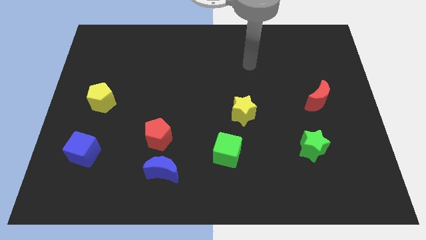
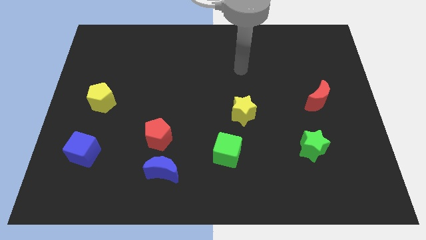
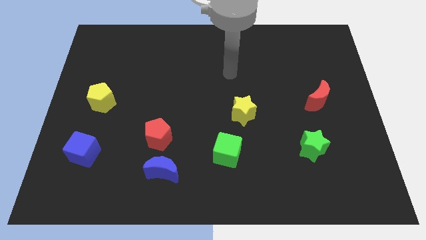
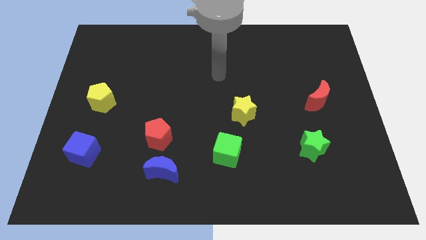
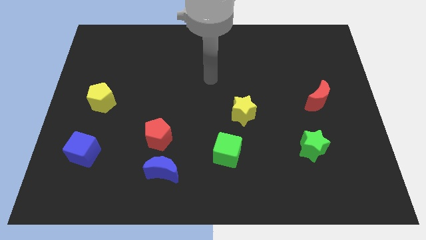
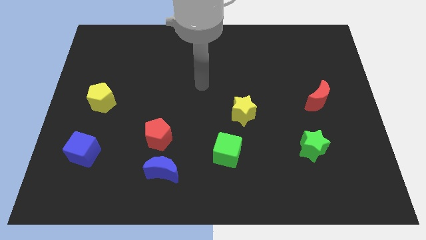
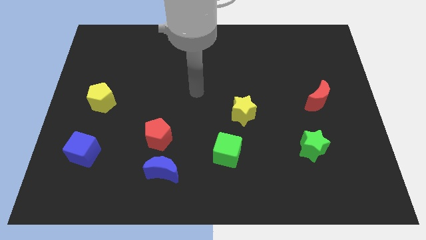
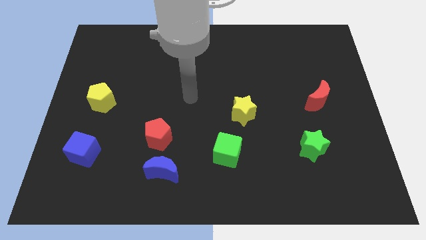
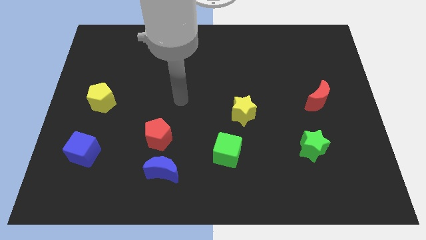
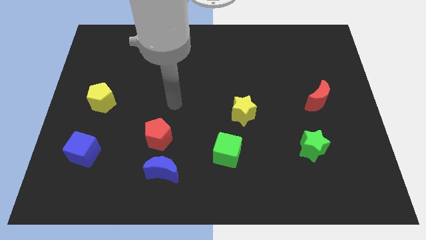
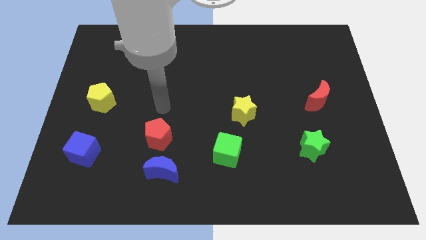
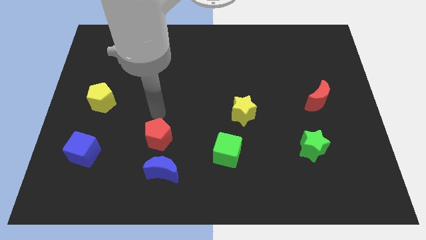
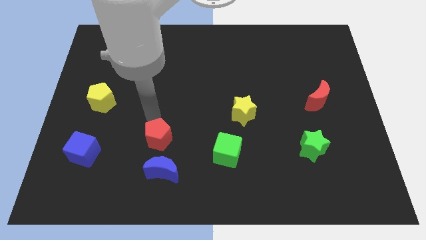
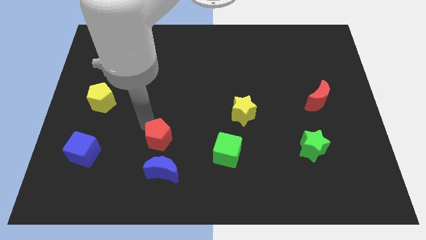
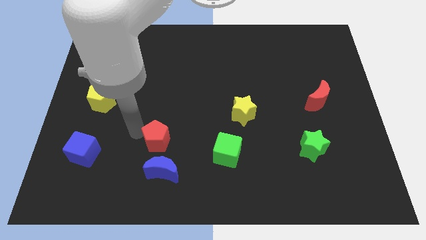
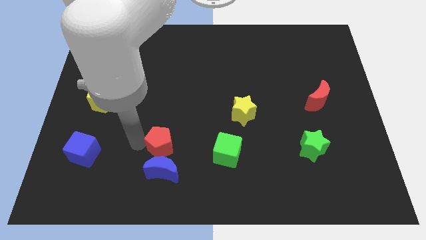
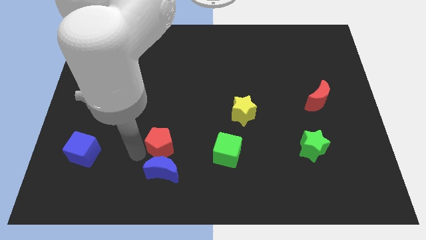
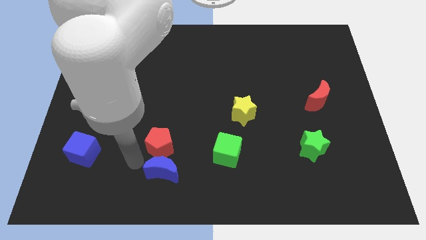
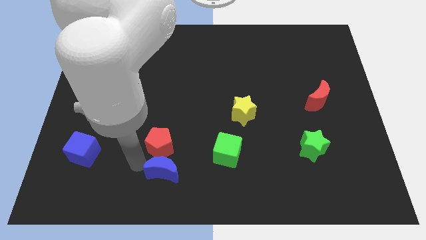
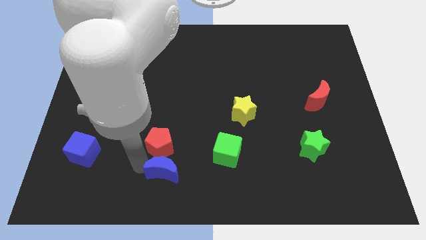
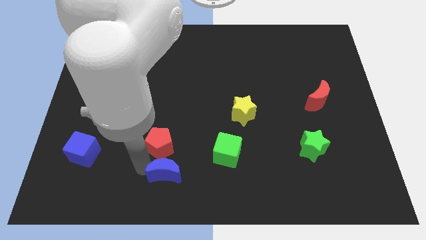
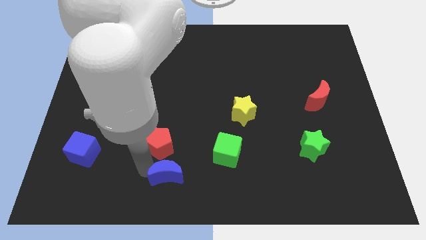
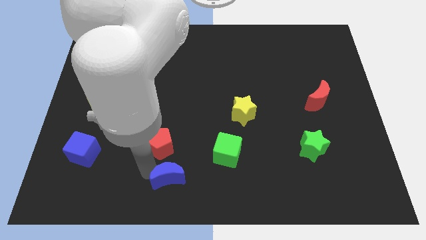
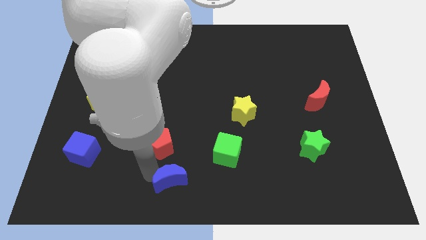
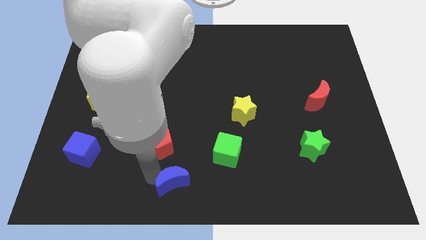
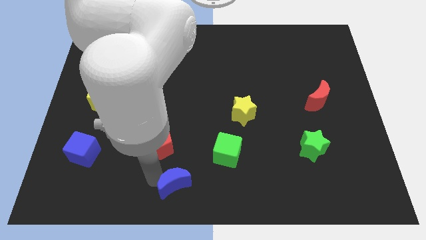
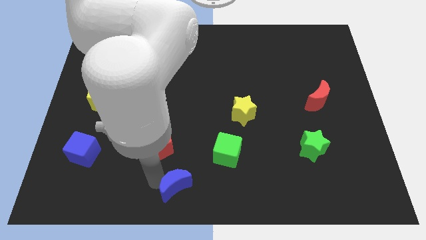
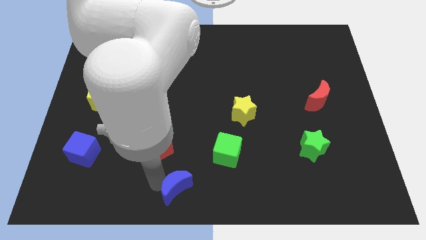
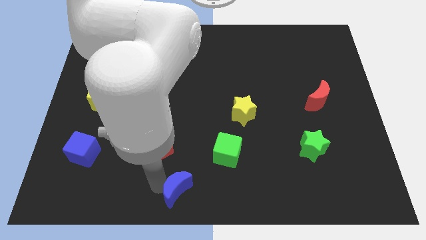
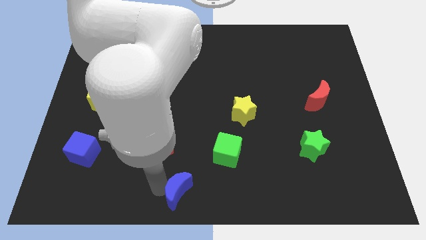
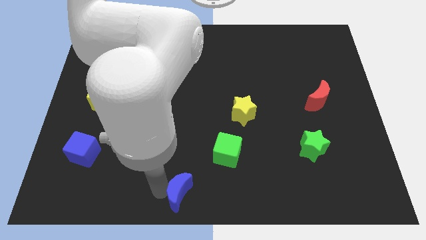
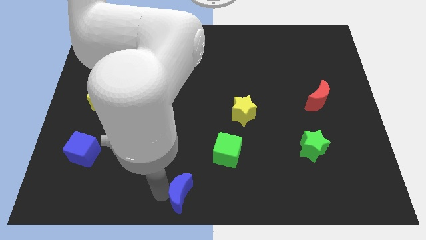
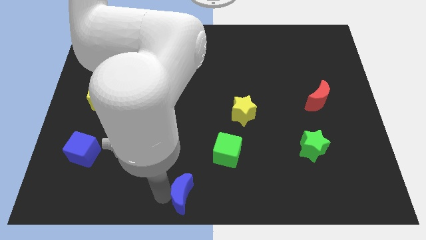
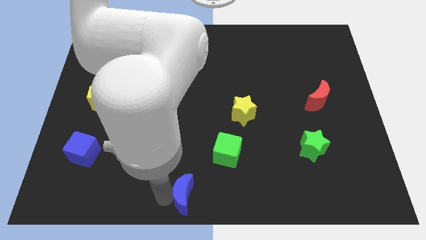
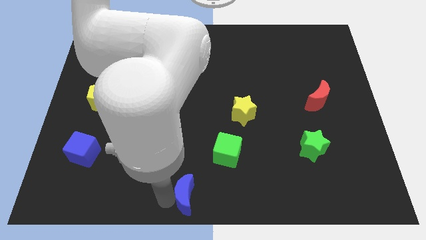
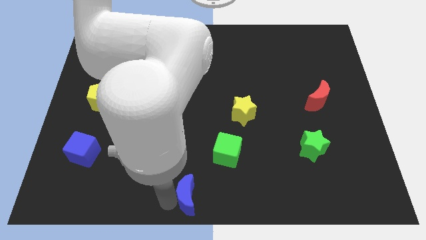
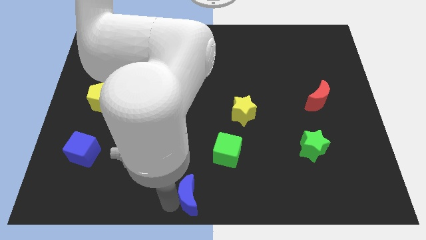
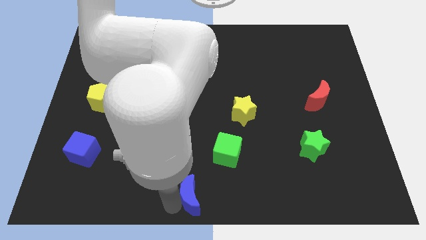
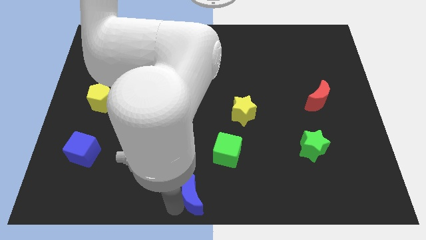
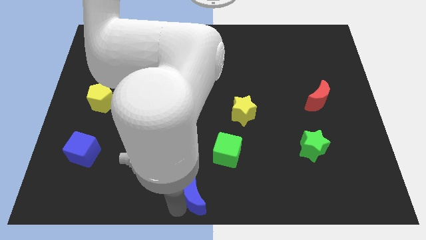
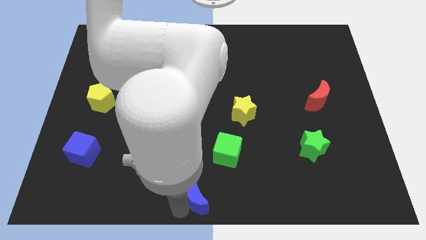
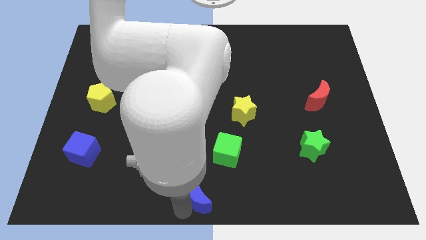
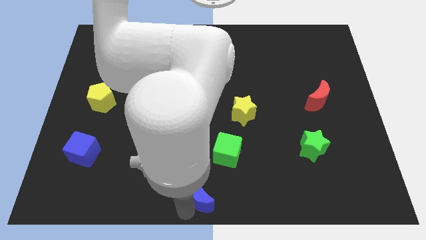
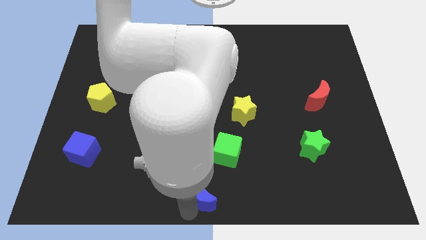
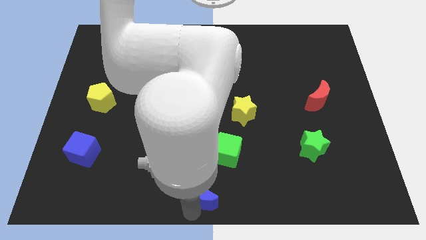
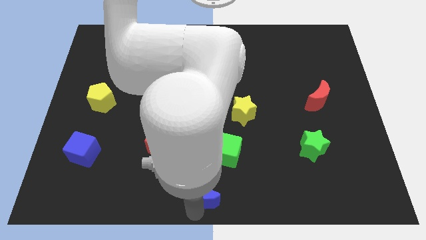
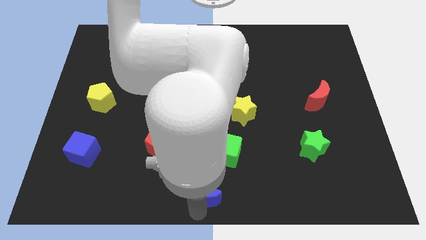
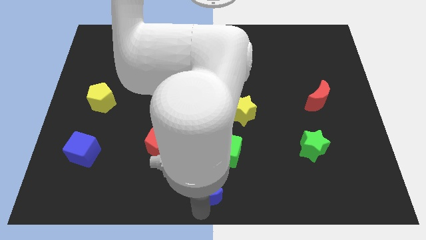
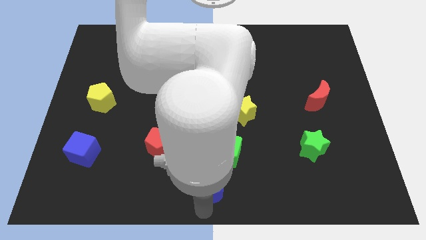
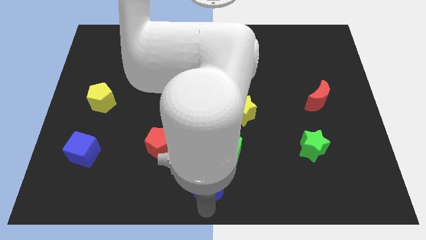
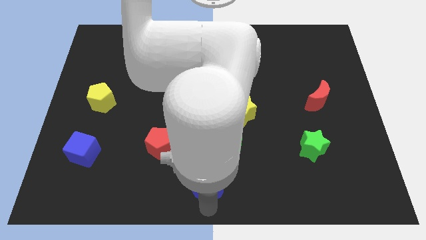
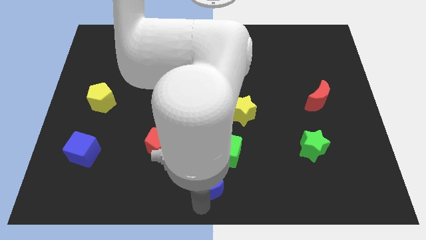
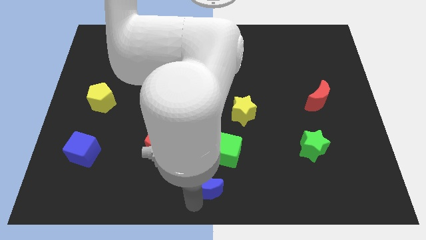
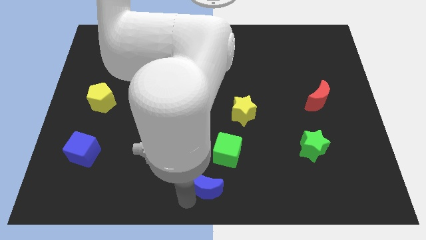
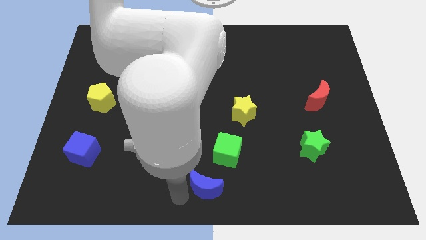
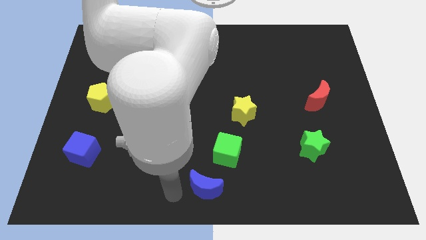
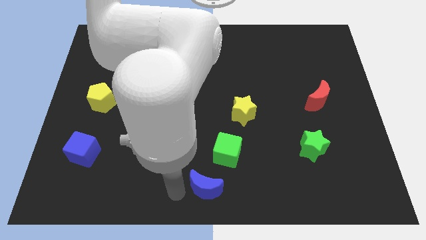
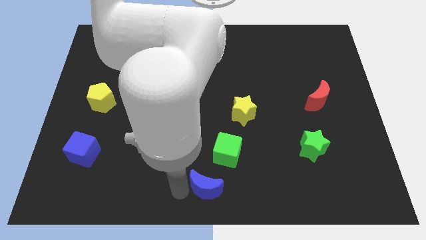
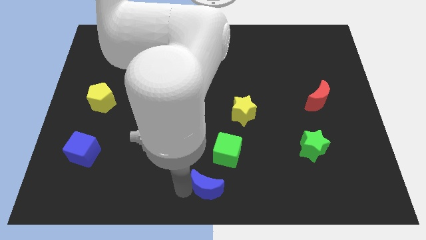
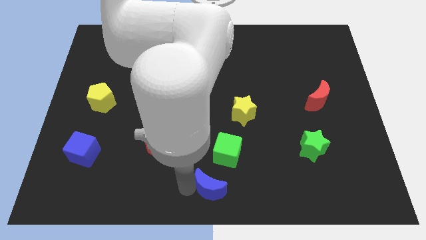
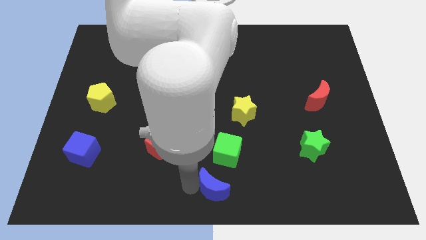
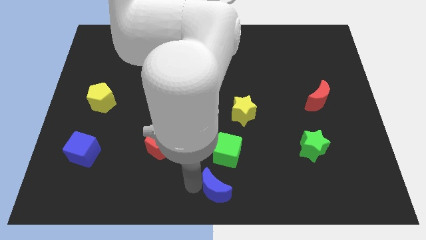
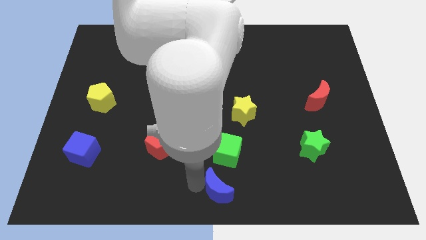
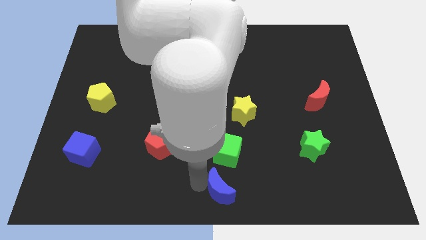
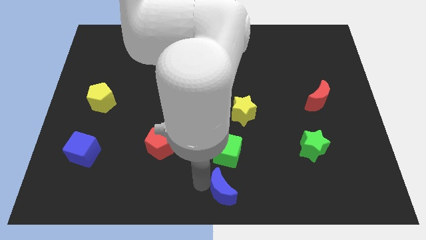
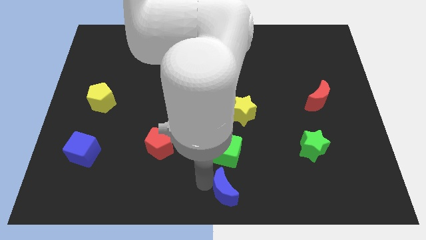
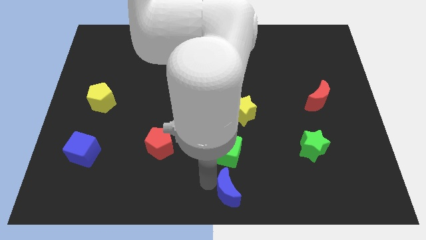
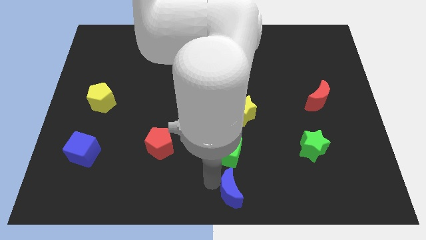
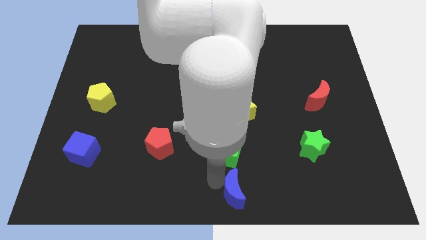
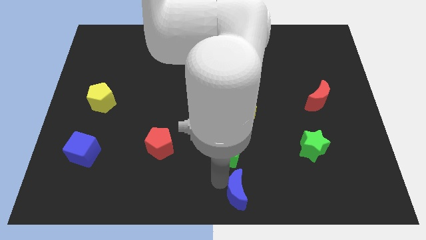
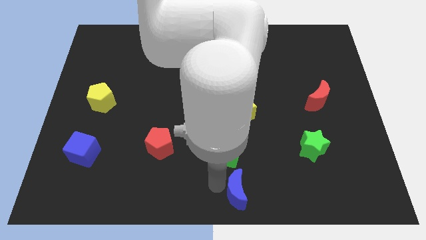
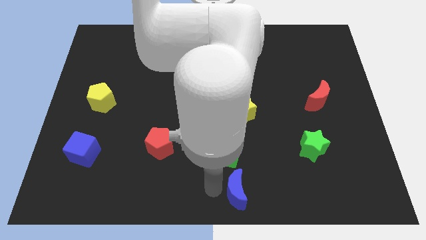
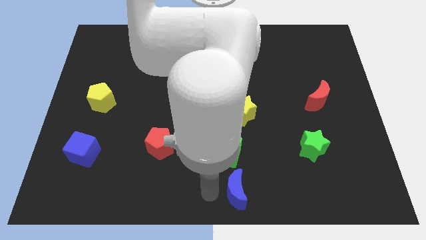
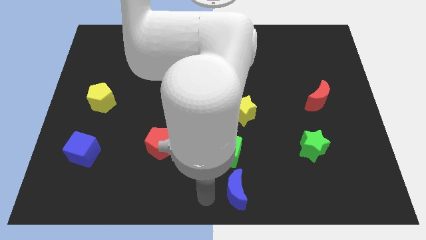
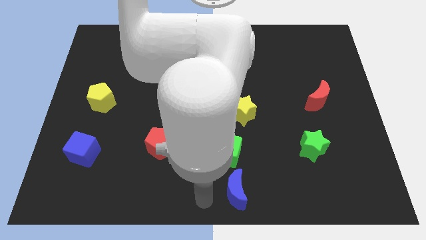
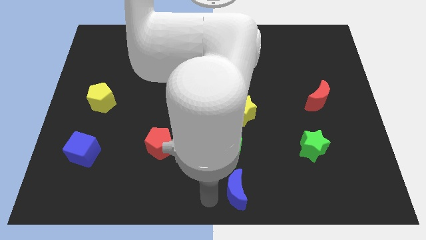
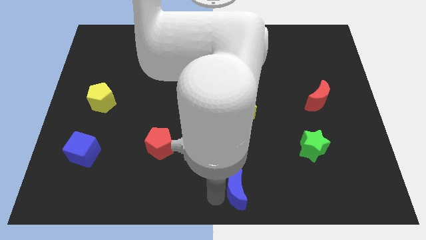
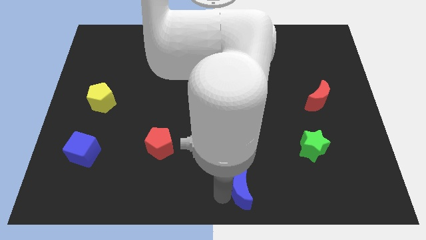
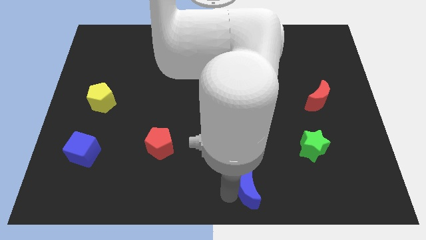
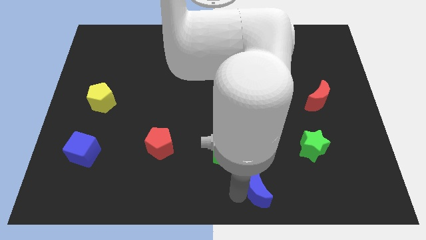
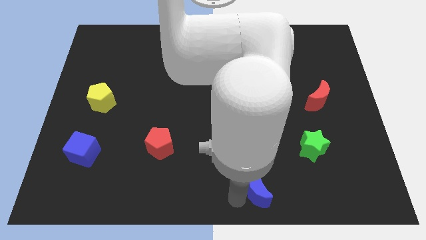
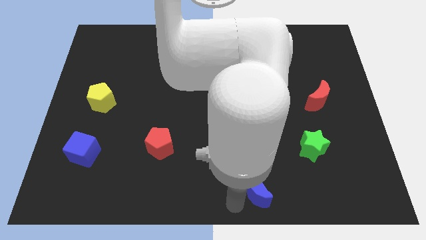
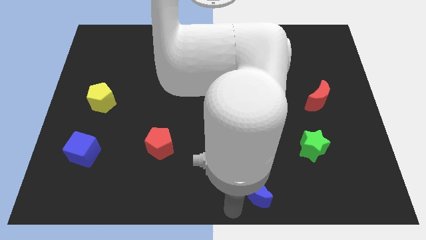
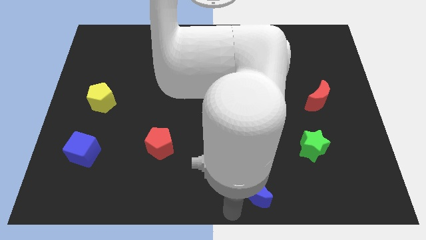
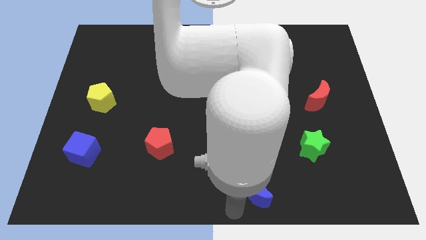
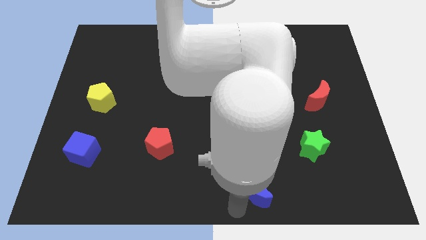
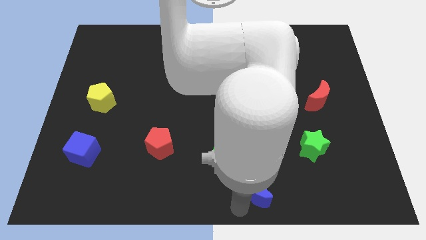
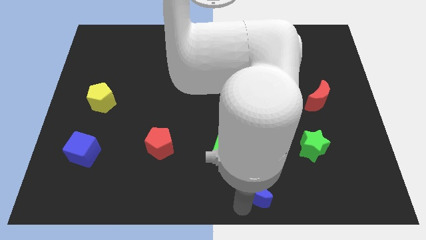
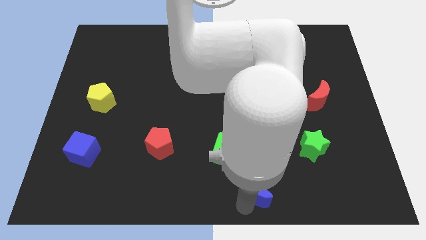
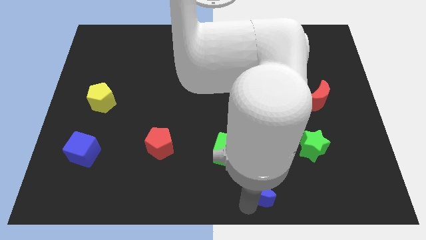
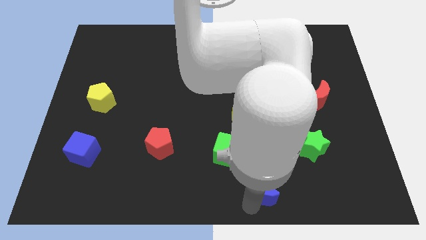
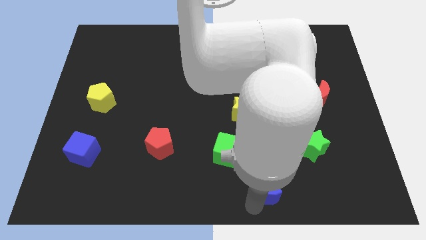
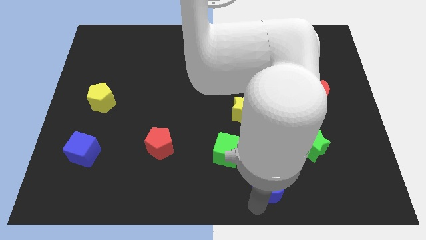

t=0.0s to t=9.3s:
move the blue moon right
